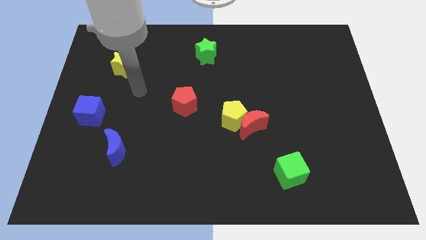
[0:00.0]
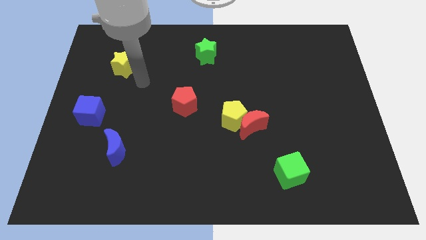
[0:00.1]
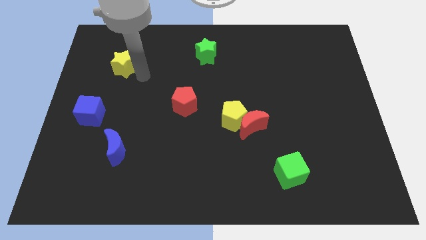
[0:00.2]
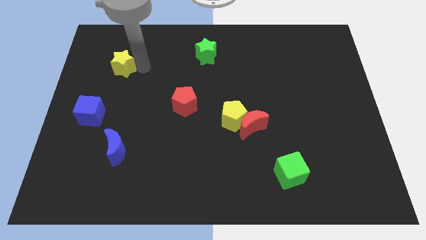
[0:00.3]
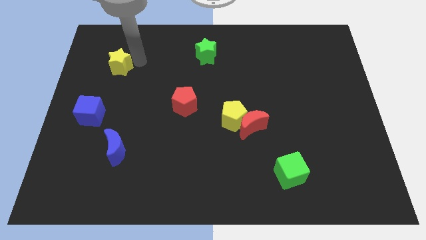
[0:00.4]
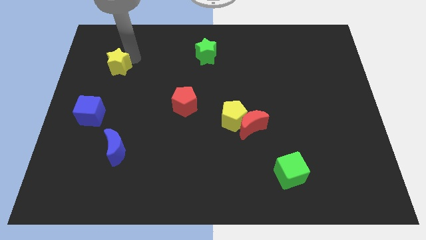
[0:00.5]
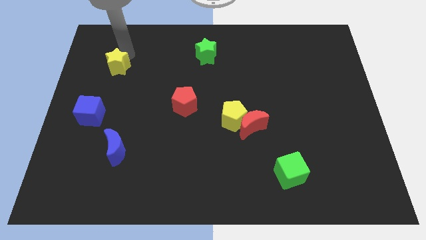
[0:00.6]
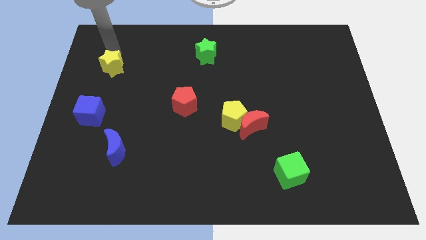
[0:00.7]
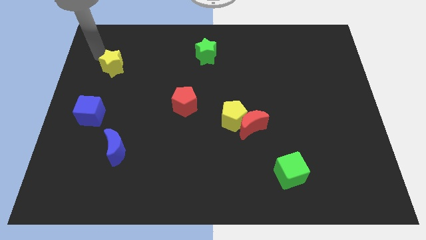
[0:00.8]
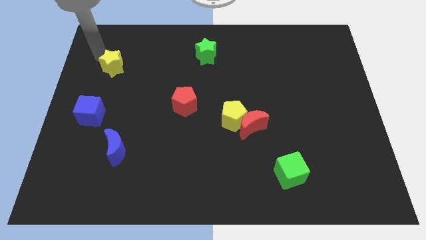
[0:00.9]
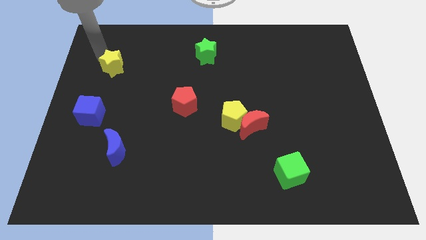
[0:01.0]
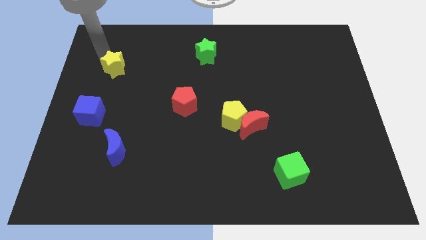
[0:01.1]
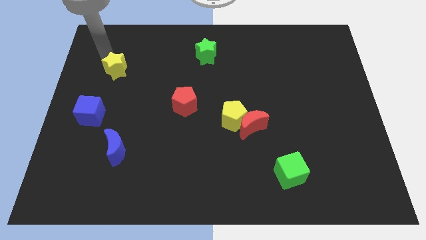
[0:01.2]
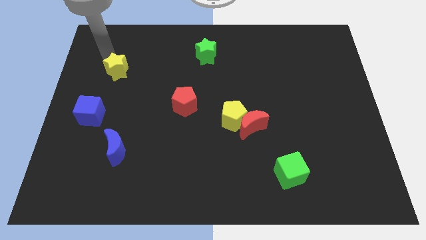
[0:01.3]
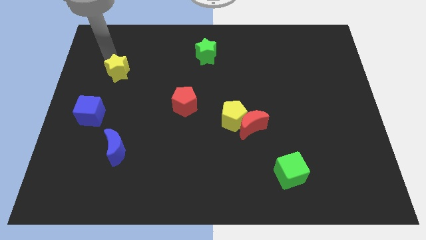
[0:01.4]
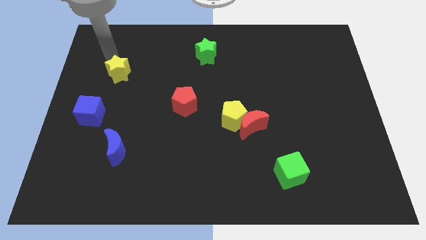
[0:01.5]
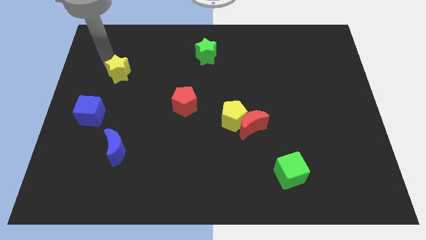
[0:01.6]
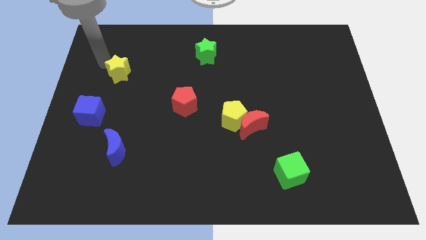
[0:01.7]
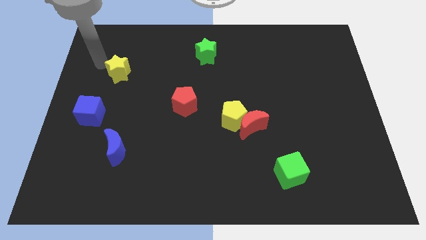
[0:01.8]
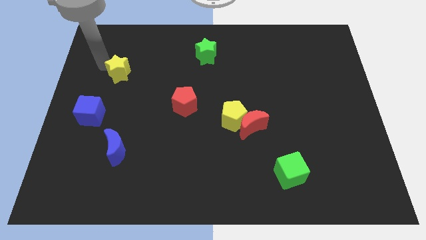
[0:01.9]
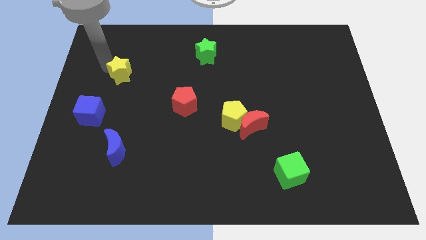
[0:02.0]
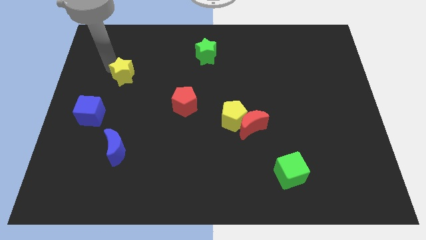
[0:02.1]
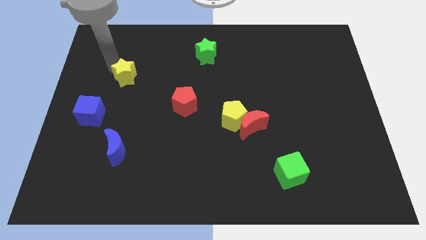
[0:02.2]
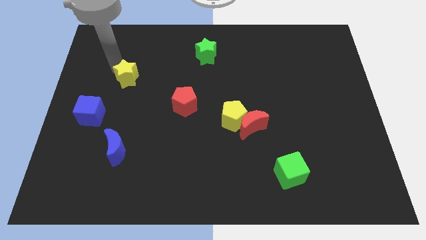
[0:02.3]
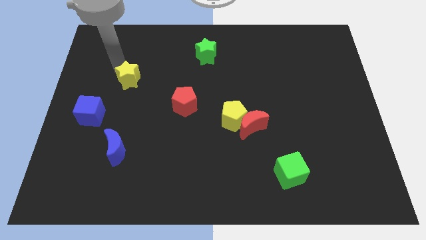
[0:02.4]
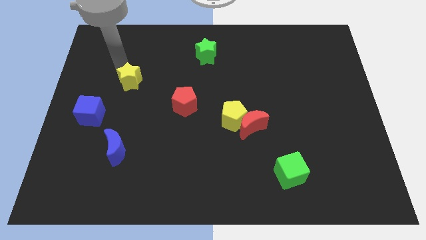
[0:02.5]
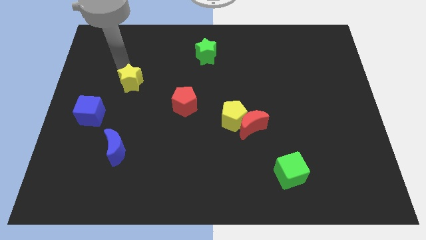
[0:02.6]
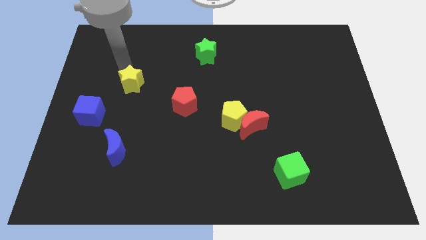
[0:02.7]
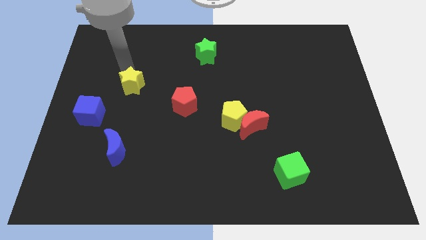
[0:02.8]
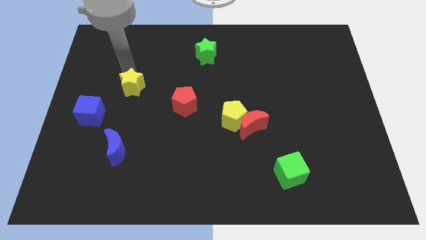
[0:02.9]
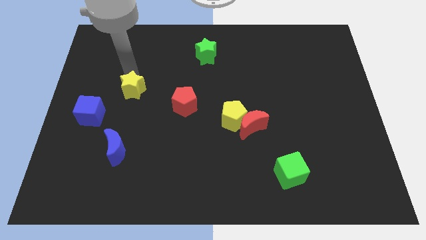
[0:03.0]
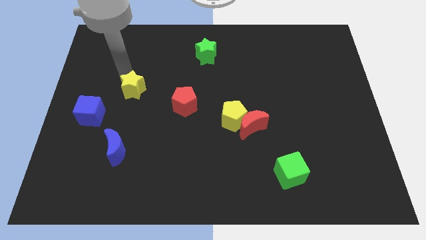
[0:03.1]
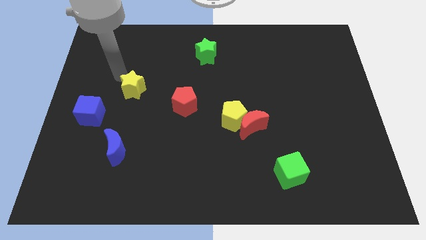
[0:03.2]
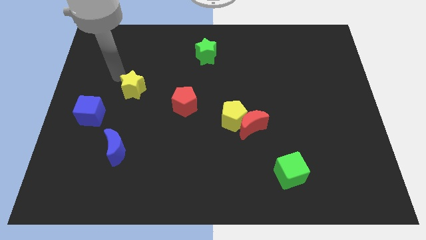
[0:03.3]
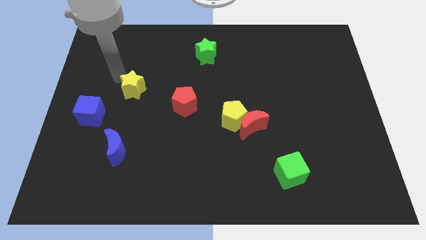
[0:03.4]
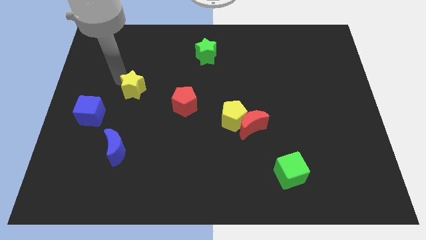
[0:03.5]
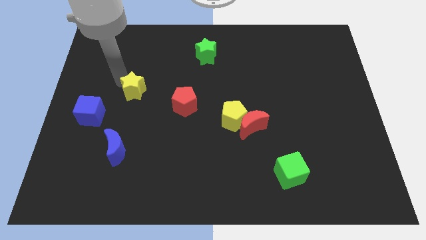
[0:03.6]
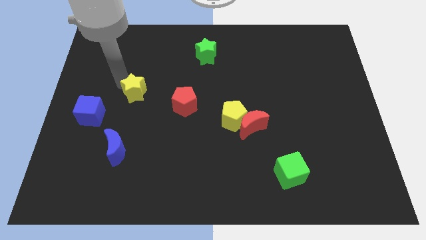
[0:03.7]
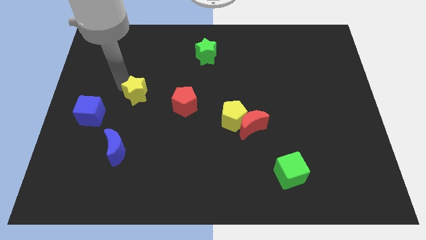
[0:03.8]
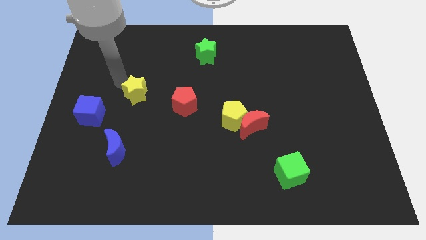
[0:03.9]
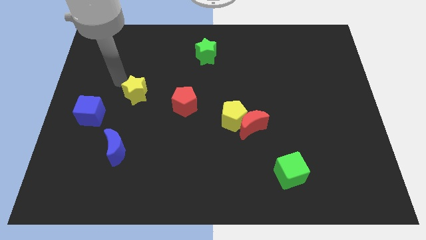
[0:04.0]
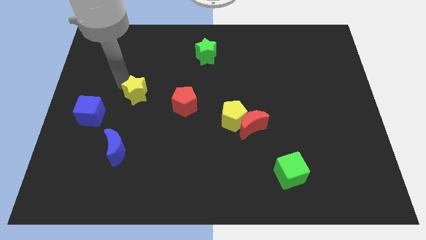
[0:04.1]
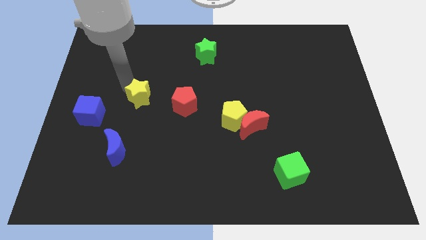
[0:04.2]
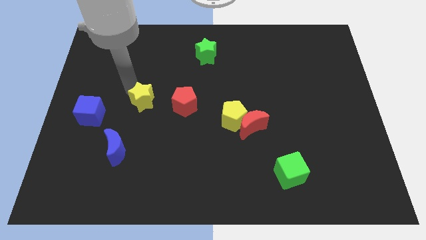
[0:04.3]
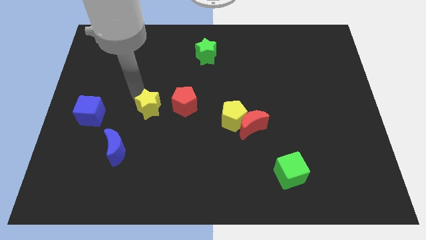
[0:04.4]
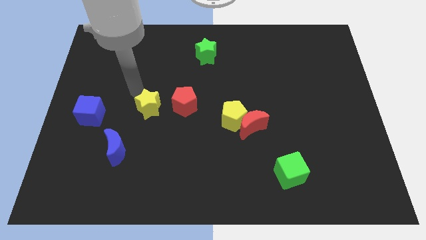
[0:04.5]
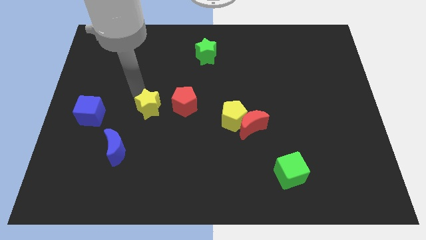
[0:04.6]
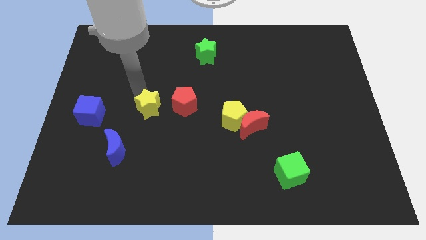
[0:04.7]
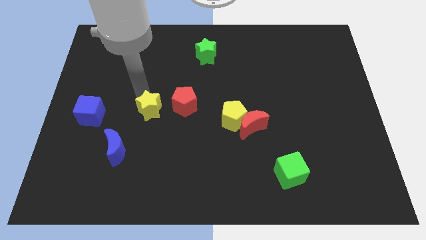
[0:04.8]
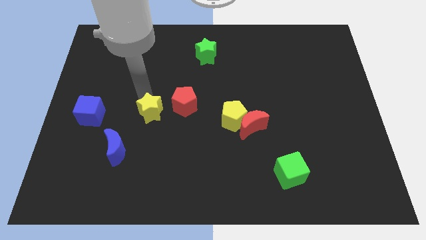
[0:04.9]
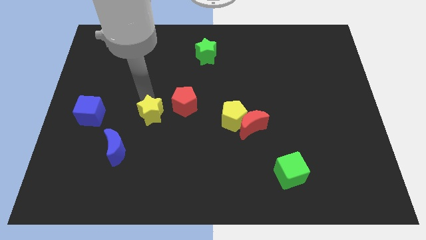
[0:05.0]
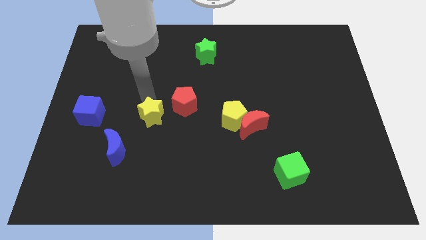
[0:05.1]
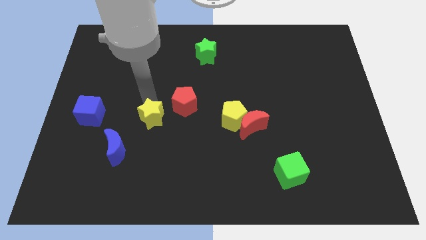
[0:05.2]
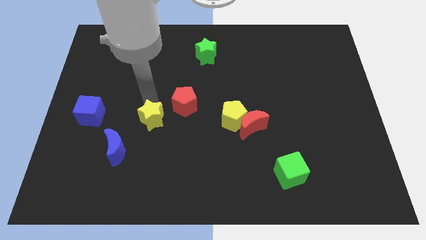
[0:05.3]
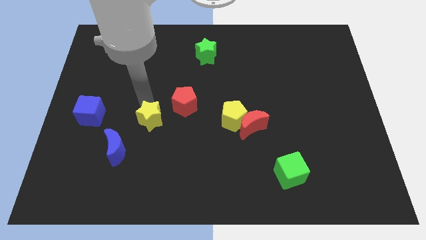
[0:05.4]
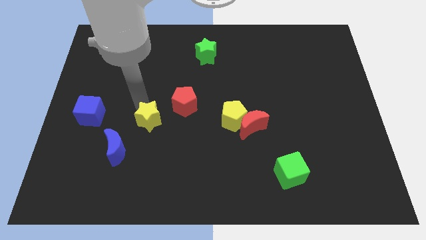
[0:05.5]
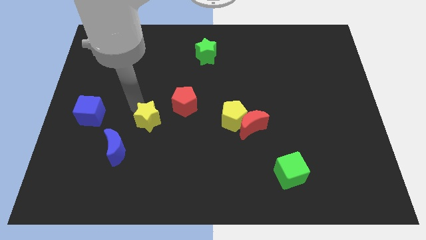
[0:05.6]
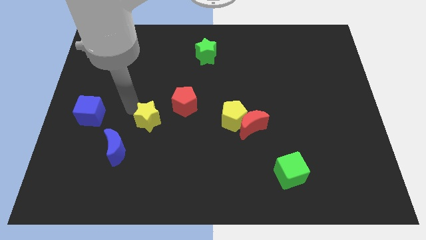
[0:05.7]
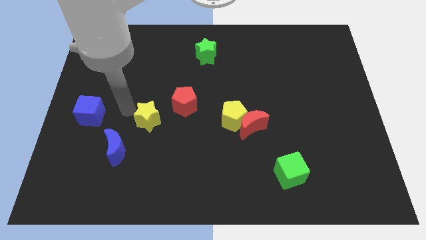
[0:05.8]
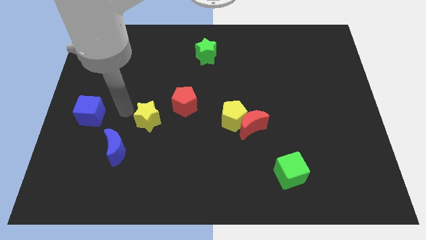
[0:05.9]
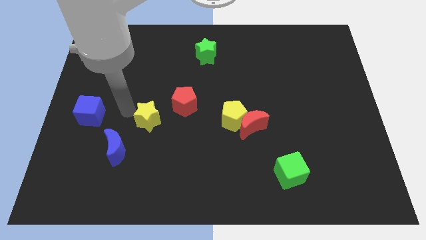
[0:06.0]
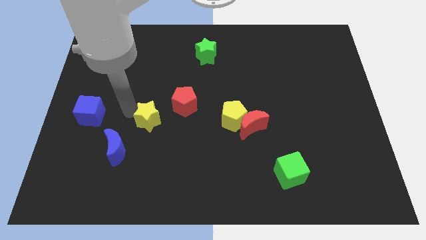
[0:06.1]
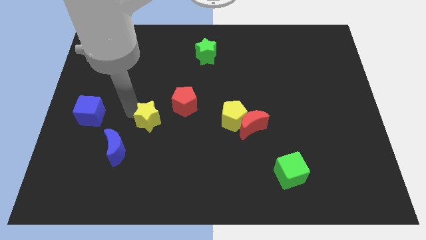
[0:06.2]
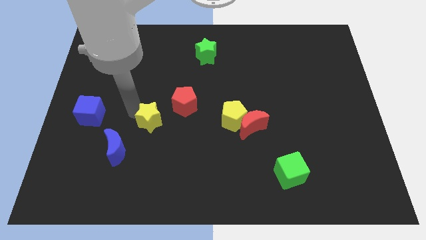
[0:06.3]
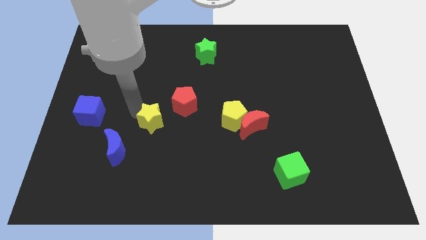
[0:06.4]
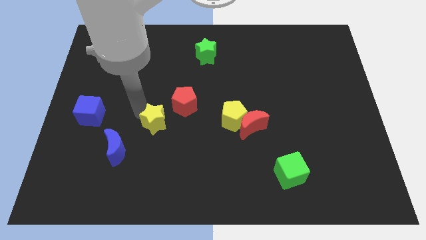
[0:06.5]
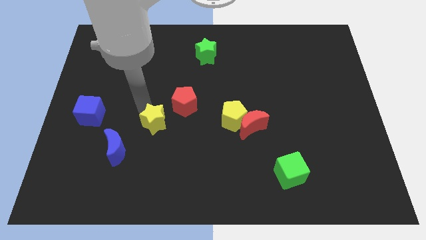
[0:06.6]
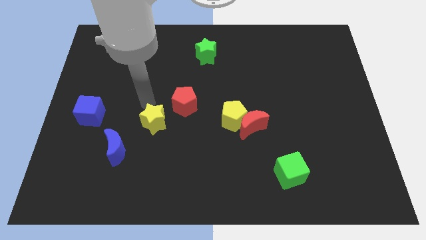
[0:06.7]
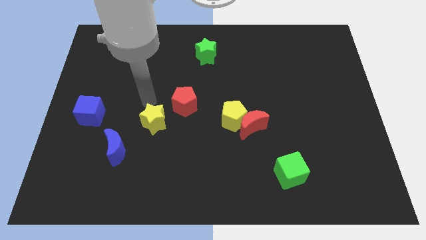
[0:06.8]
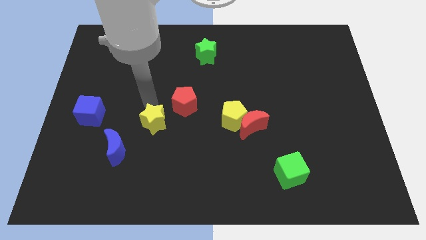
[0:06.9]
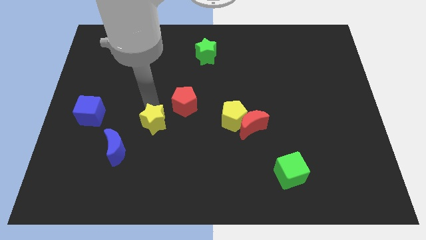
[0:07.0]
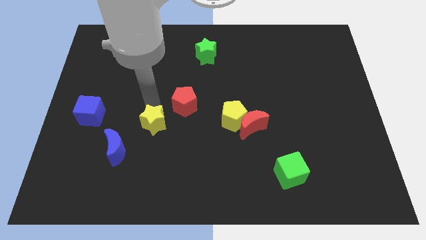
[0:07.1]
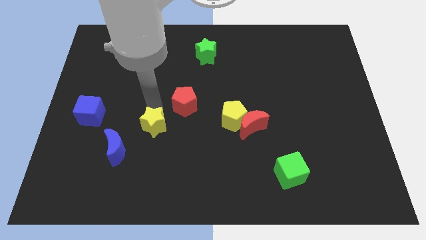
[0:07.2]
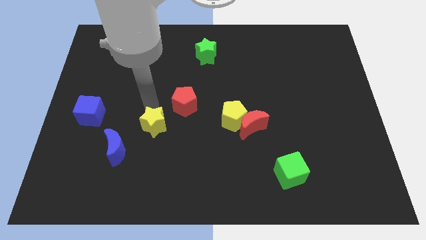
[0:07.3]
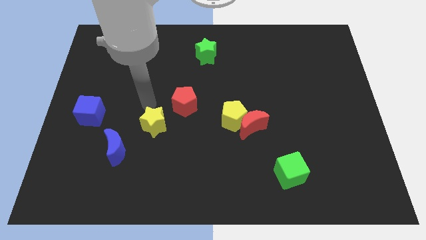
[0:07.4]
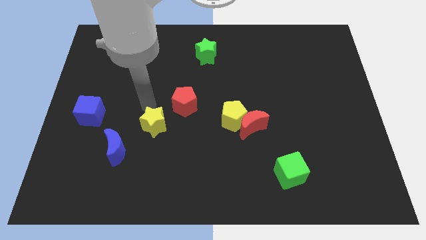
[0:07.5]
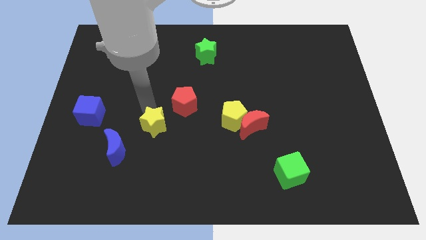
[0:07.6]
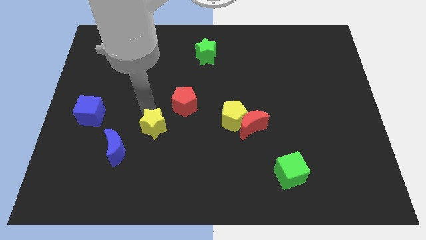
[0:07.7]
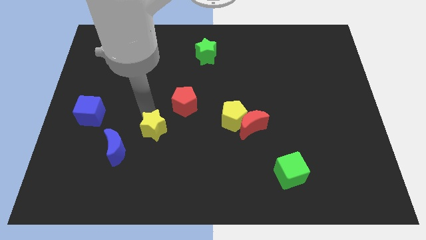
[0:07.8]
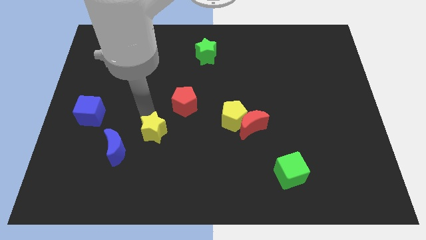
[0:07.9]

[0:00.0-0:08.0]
push the yellow star just right of the blue moon
